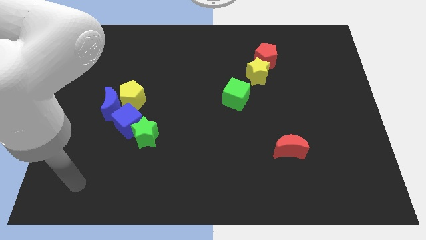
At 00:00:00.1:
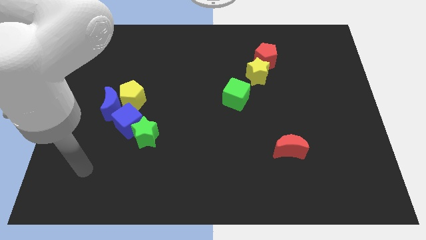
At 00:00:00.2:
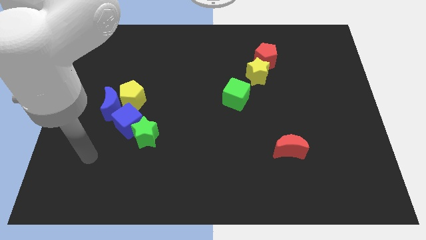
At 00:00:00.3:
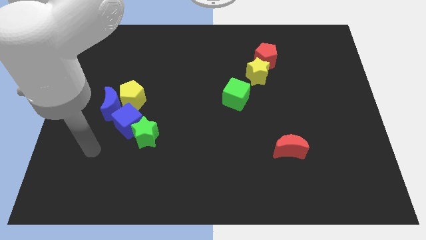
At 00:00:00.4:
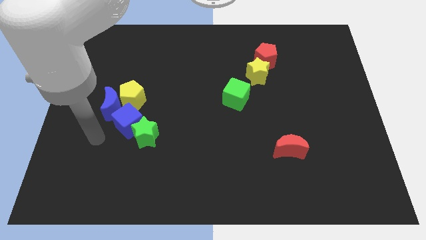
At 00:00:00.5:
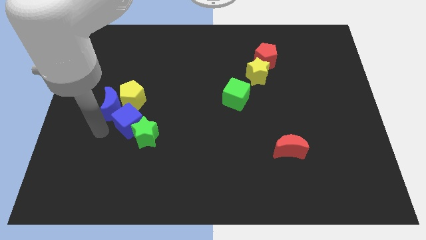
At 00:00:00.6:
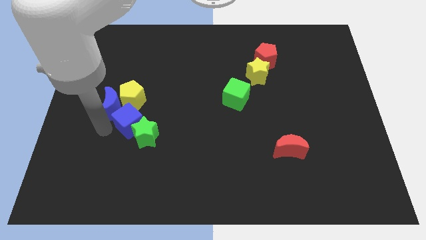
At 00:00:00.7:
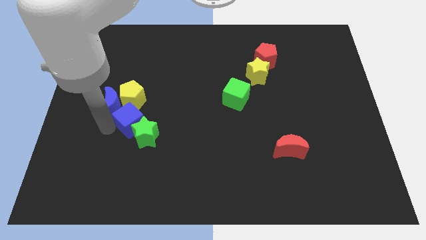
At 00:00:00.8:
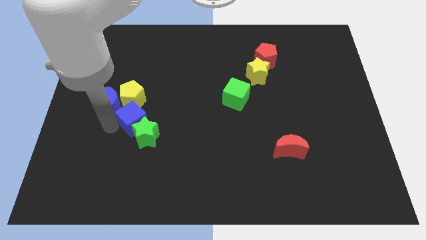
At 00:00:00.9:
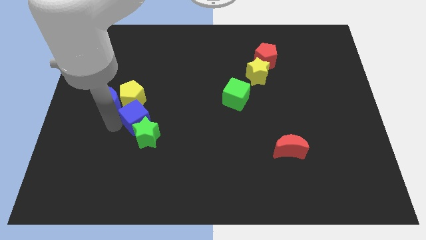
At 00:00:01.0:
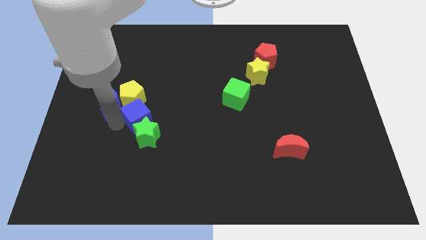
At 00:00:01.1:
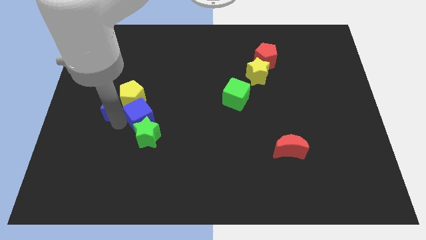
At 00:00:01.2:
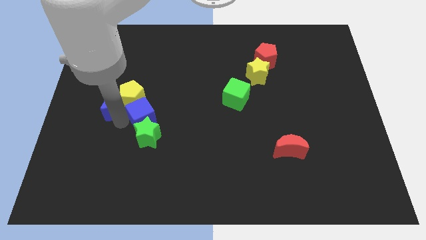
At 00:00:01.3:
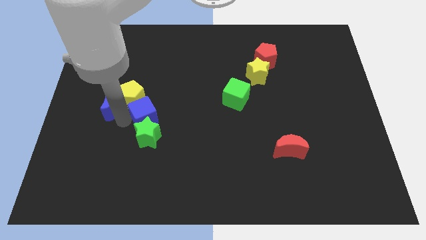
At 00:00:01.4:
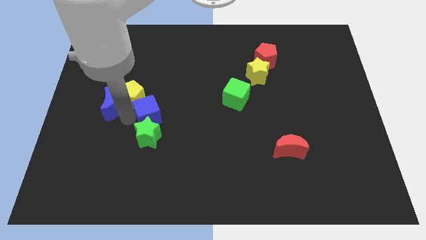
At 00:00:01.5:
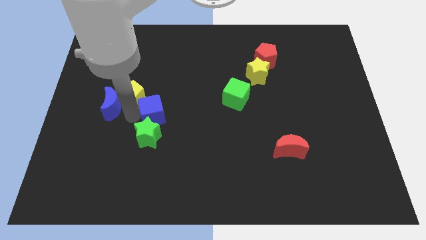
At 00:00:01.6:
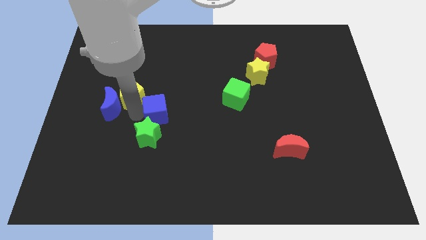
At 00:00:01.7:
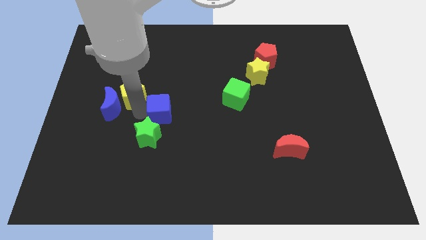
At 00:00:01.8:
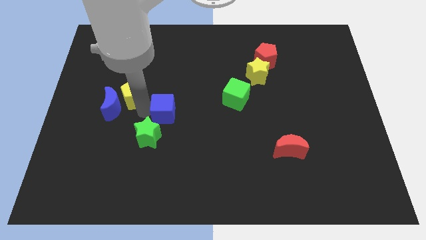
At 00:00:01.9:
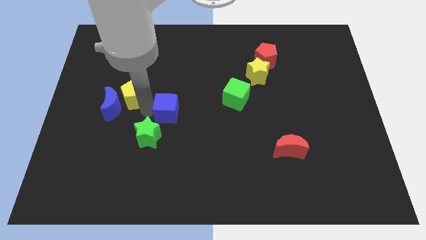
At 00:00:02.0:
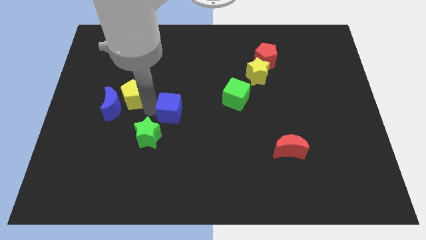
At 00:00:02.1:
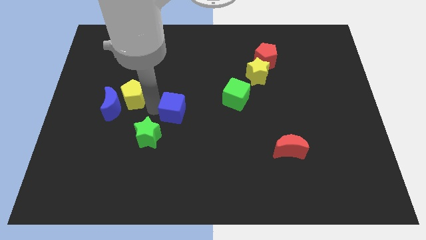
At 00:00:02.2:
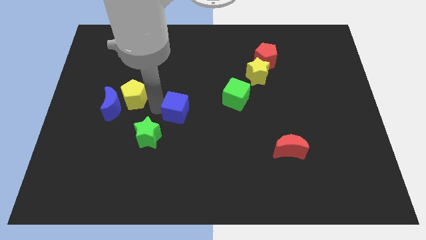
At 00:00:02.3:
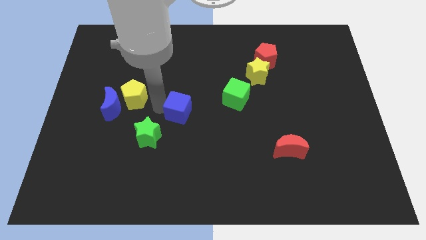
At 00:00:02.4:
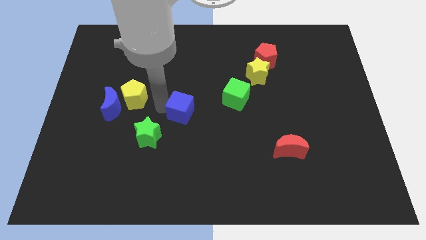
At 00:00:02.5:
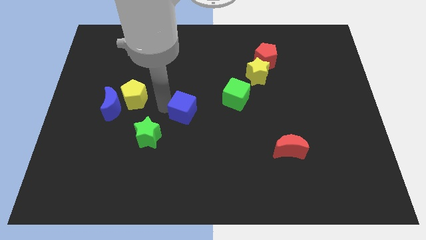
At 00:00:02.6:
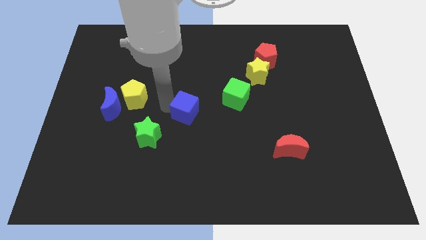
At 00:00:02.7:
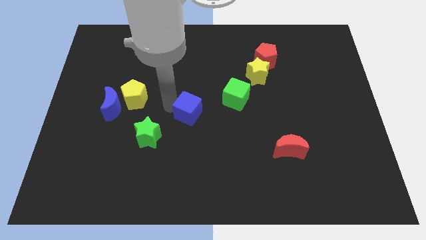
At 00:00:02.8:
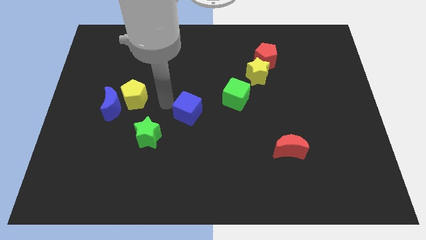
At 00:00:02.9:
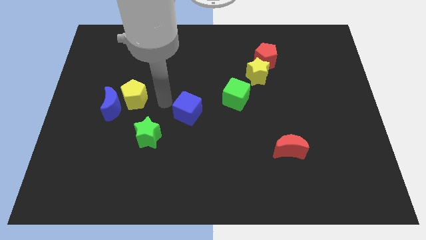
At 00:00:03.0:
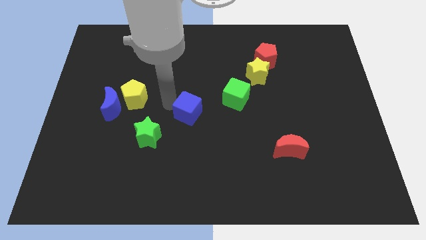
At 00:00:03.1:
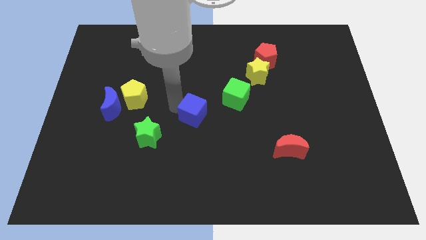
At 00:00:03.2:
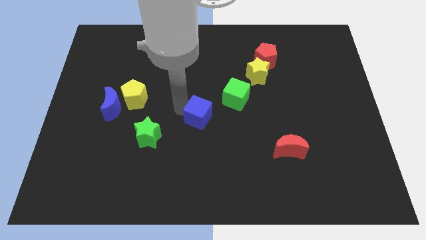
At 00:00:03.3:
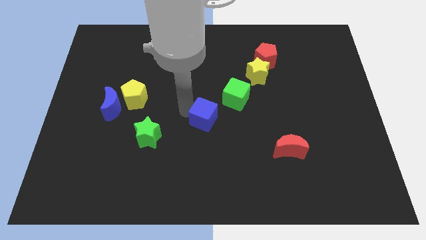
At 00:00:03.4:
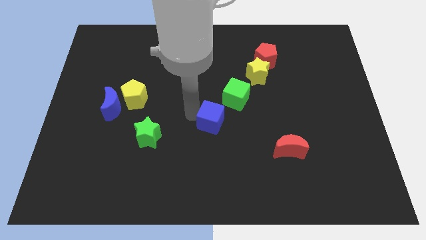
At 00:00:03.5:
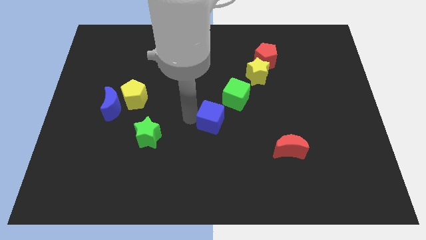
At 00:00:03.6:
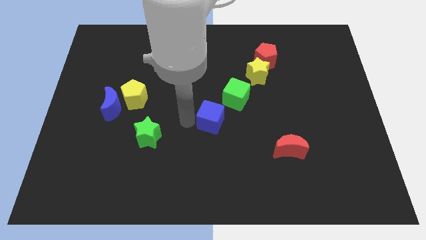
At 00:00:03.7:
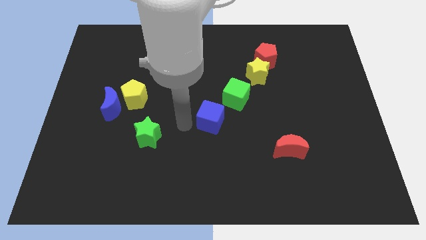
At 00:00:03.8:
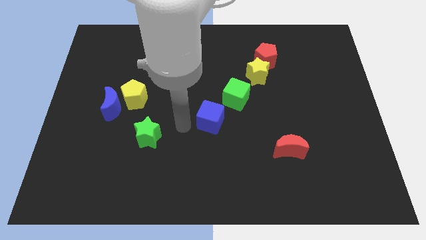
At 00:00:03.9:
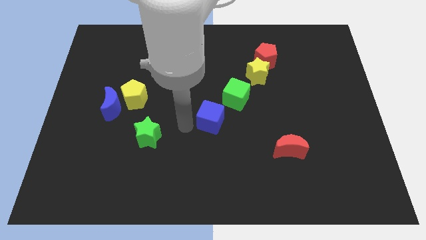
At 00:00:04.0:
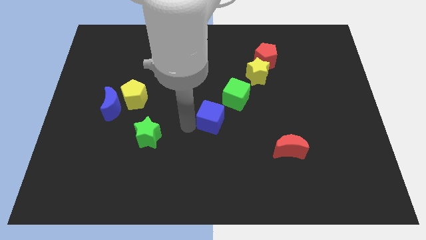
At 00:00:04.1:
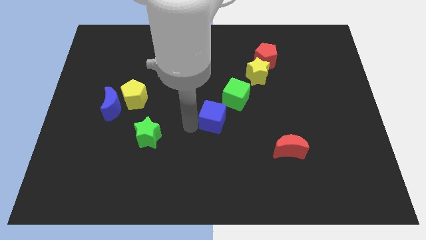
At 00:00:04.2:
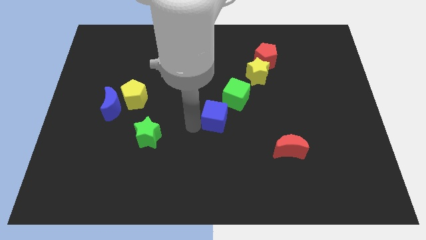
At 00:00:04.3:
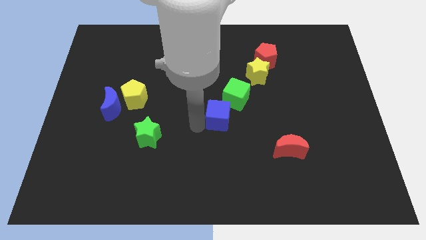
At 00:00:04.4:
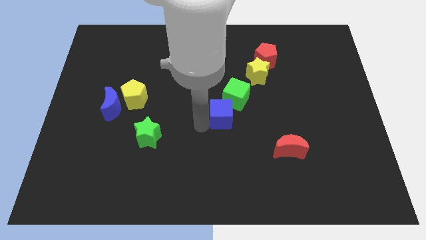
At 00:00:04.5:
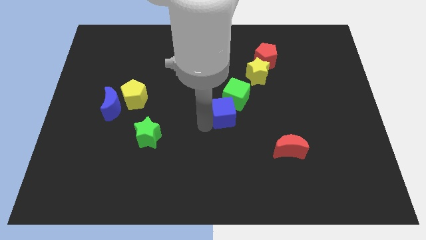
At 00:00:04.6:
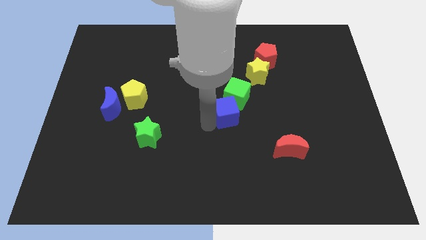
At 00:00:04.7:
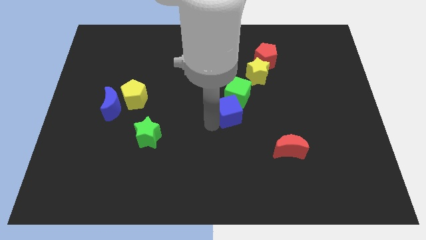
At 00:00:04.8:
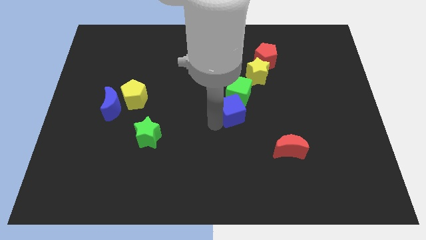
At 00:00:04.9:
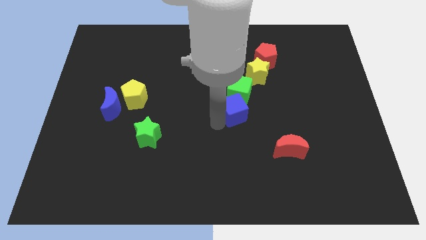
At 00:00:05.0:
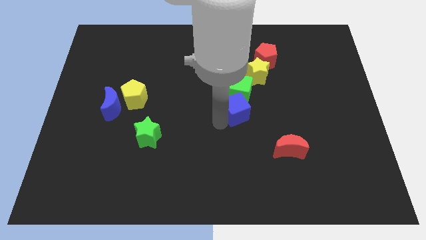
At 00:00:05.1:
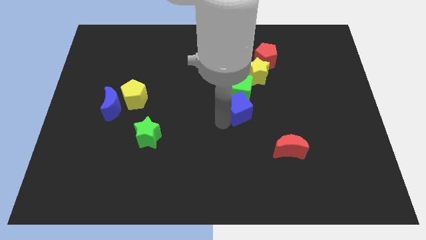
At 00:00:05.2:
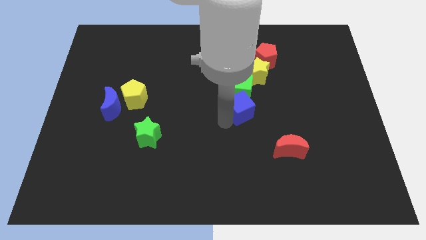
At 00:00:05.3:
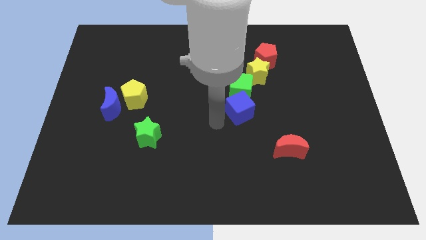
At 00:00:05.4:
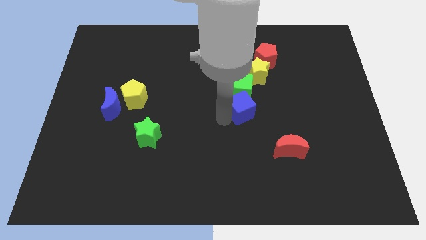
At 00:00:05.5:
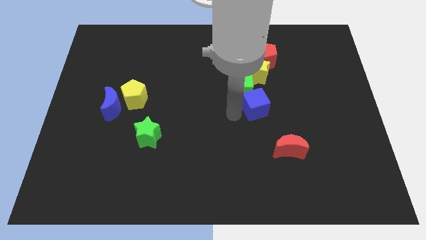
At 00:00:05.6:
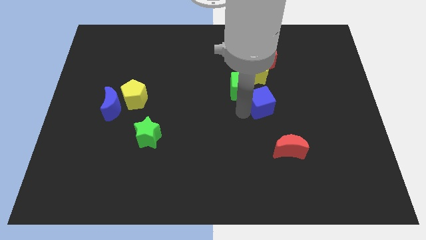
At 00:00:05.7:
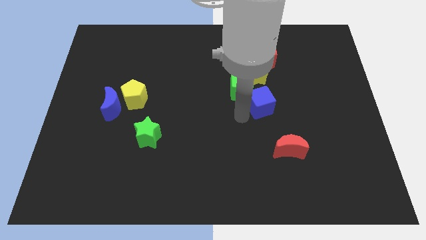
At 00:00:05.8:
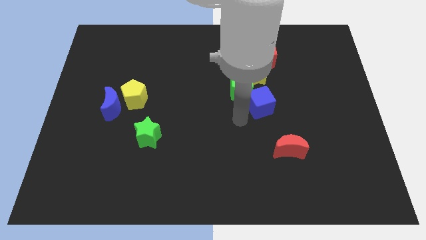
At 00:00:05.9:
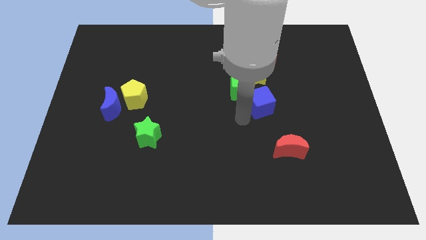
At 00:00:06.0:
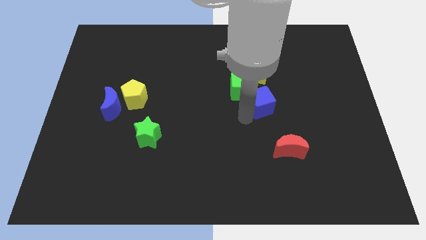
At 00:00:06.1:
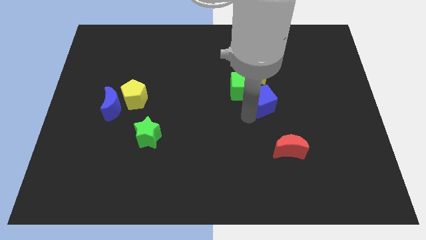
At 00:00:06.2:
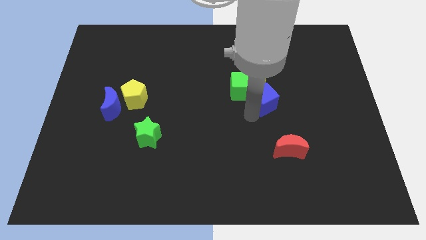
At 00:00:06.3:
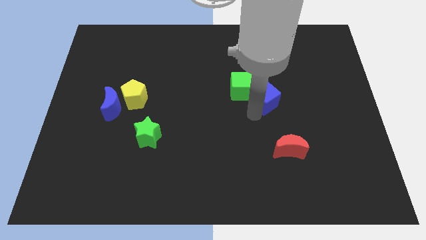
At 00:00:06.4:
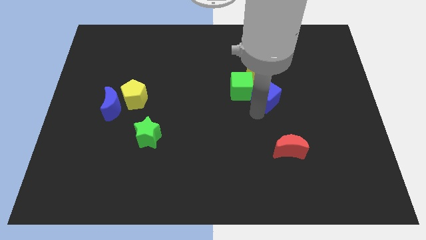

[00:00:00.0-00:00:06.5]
put the blue cube to the bottom right of the yellow star
